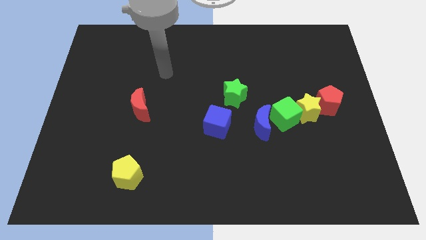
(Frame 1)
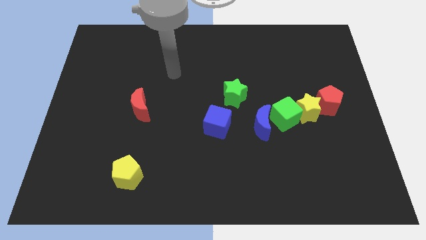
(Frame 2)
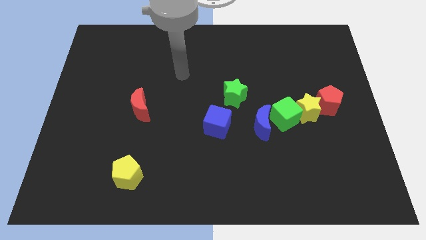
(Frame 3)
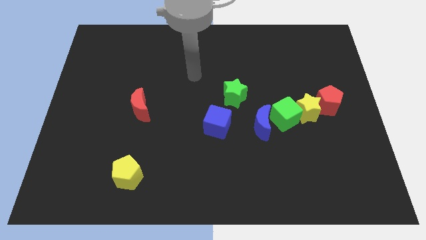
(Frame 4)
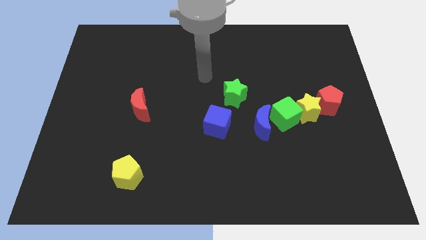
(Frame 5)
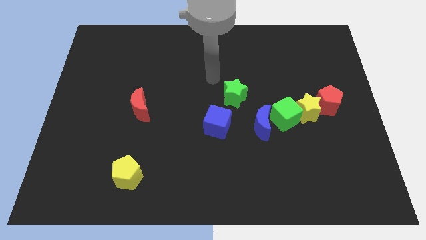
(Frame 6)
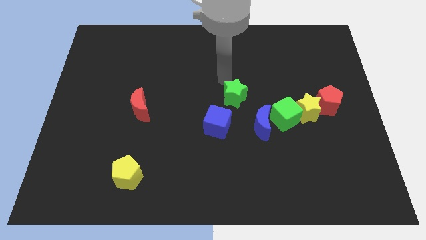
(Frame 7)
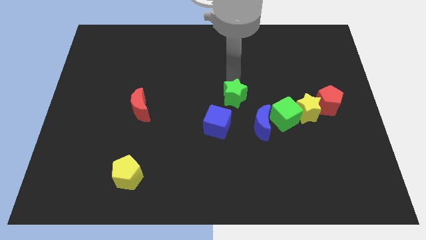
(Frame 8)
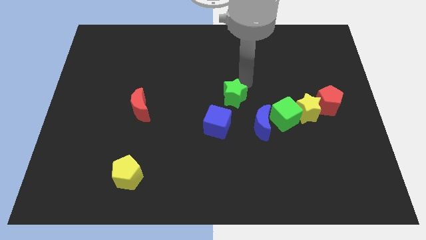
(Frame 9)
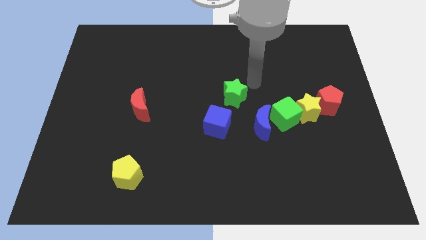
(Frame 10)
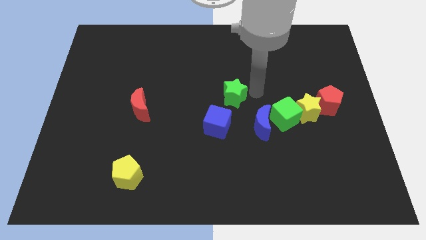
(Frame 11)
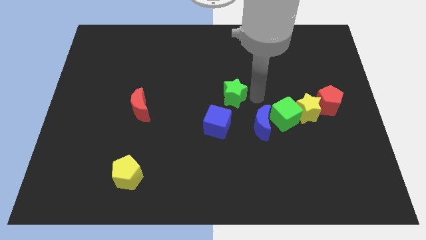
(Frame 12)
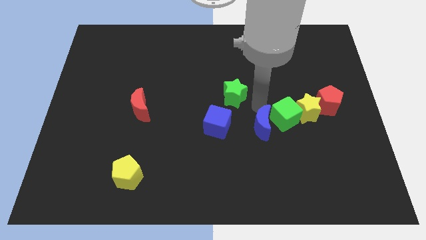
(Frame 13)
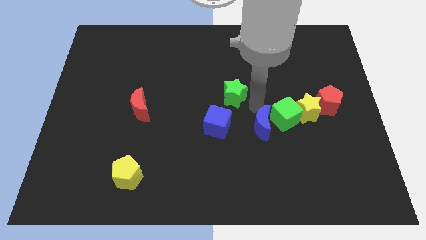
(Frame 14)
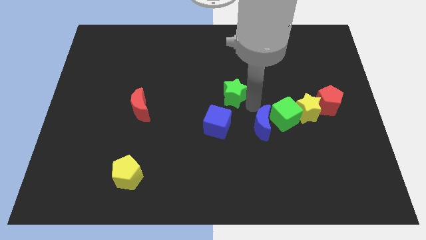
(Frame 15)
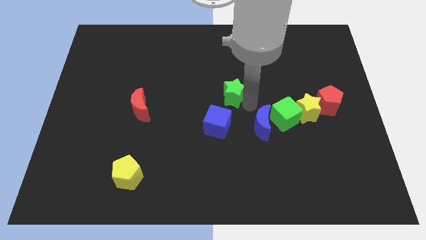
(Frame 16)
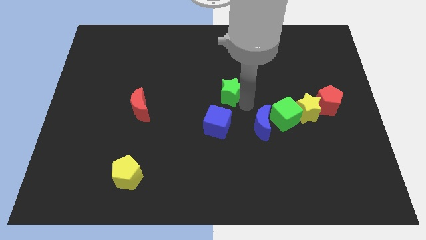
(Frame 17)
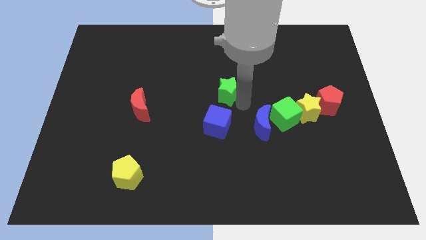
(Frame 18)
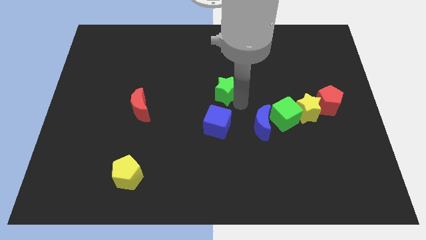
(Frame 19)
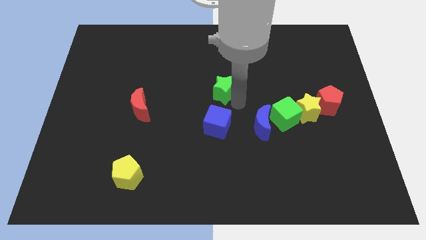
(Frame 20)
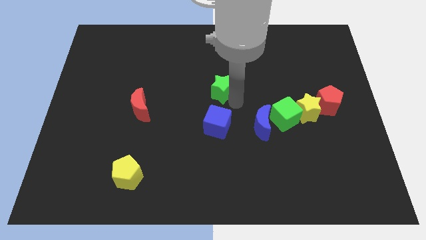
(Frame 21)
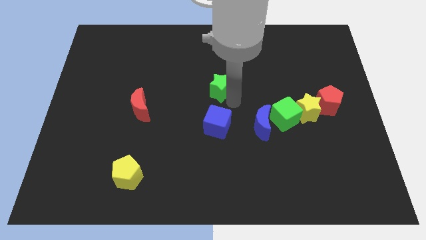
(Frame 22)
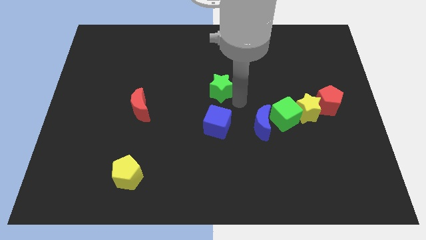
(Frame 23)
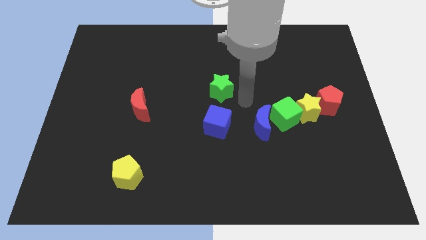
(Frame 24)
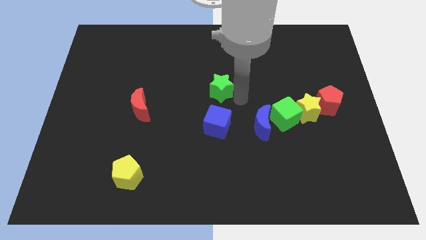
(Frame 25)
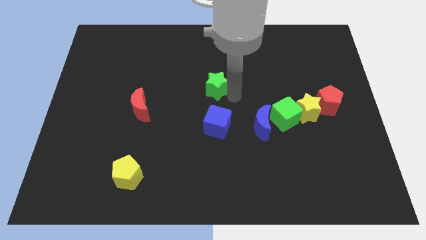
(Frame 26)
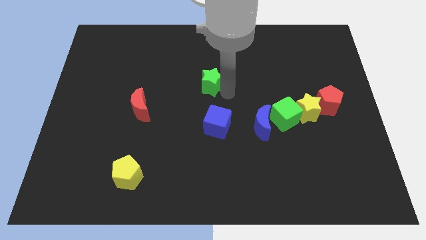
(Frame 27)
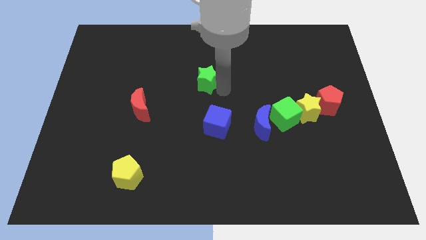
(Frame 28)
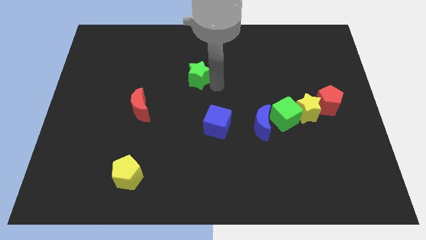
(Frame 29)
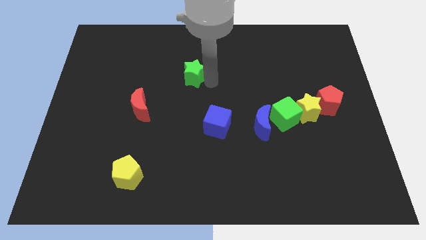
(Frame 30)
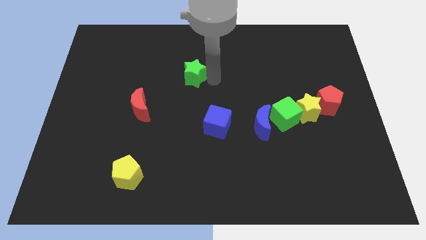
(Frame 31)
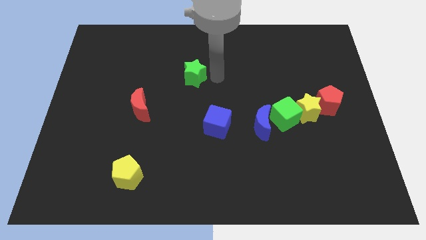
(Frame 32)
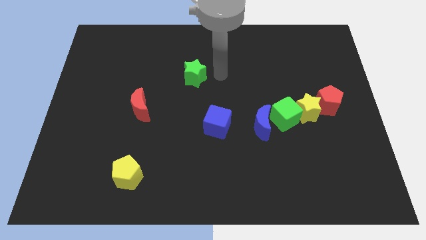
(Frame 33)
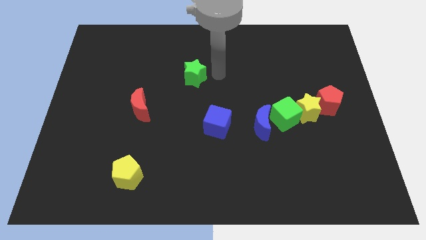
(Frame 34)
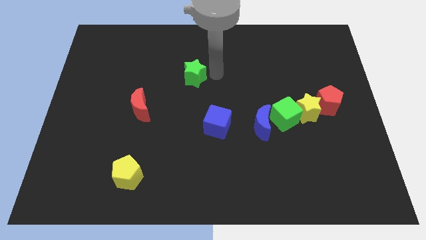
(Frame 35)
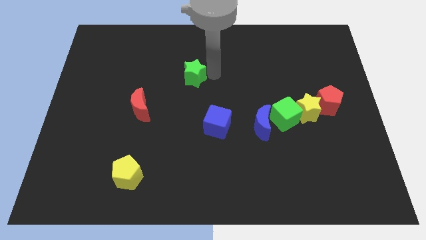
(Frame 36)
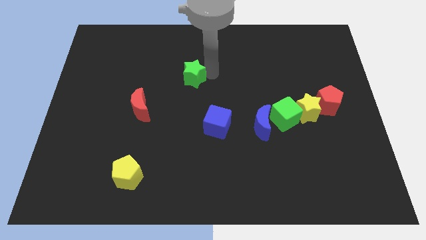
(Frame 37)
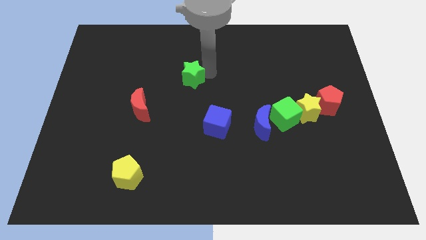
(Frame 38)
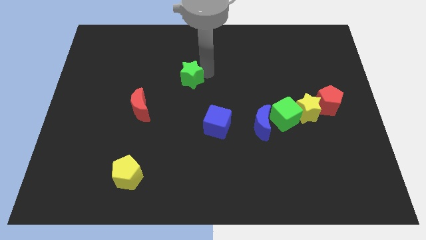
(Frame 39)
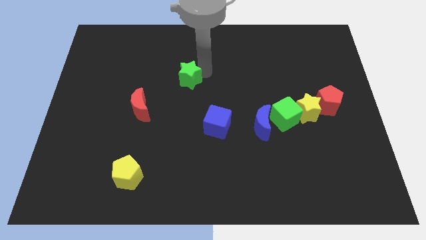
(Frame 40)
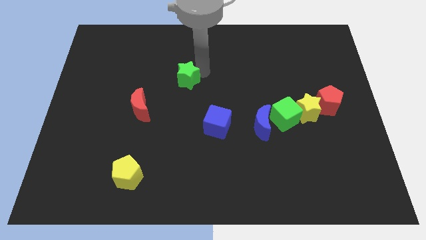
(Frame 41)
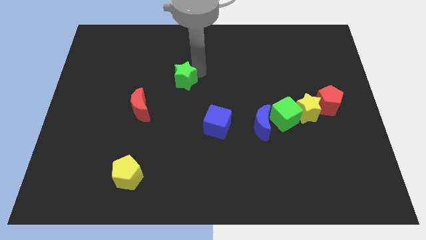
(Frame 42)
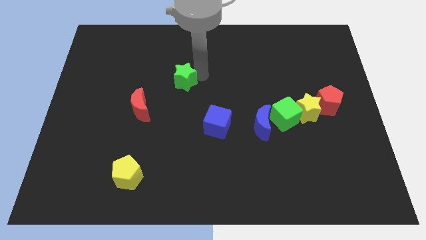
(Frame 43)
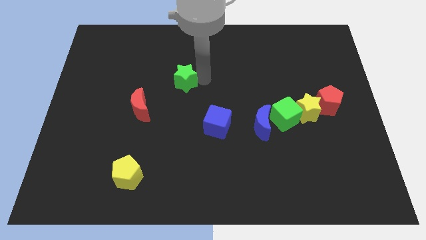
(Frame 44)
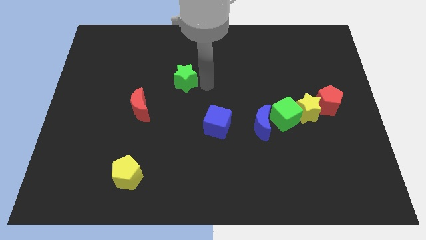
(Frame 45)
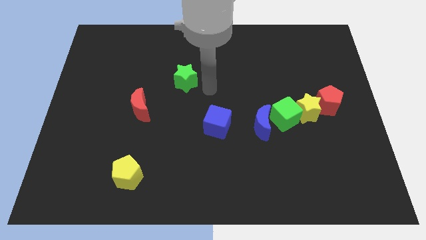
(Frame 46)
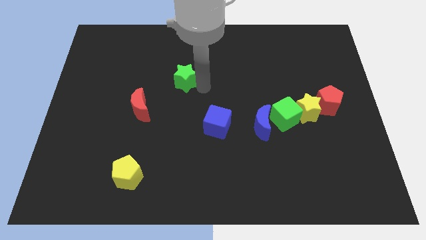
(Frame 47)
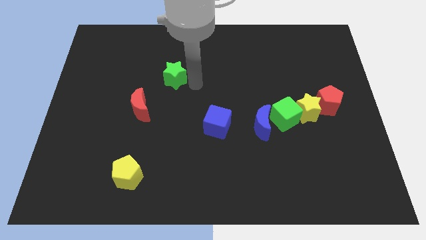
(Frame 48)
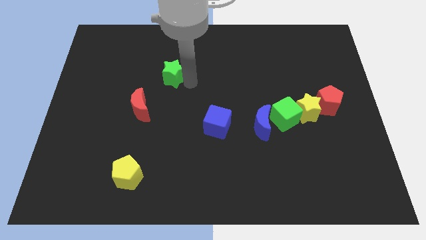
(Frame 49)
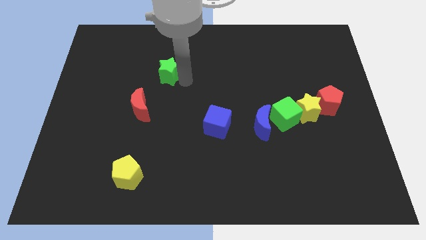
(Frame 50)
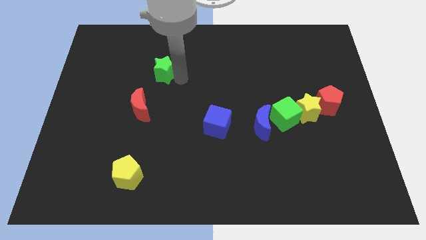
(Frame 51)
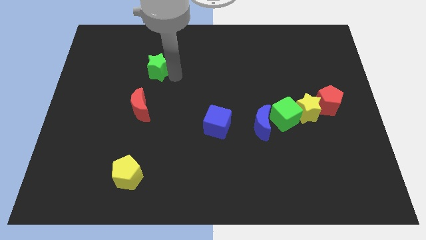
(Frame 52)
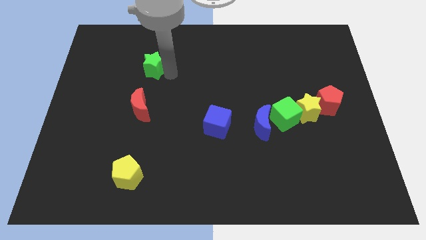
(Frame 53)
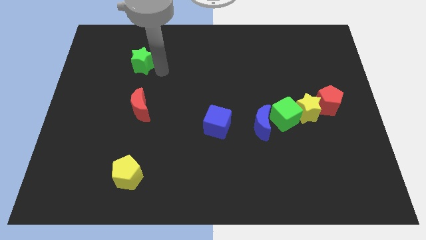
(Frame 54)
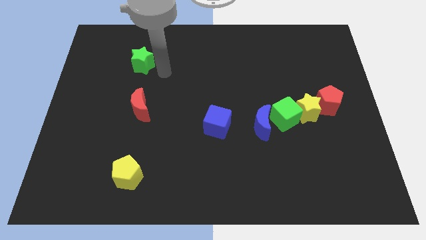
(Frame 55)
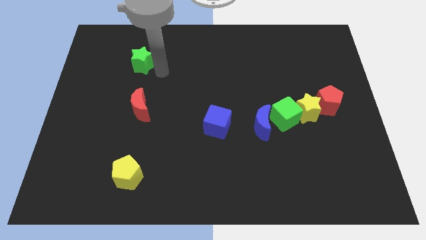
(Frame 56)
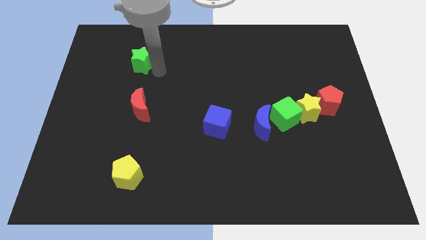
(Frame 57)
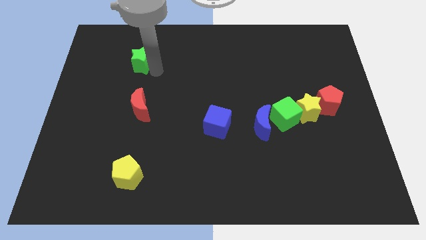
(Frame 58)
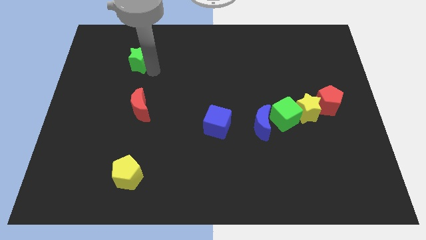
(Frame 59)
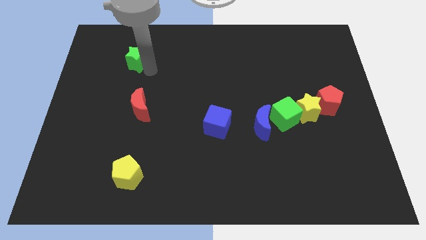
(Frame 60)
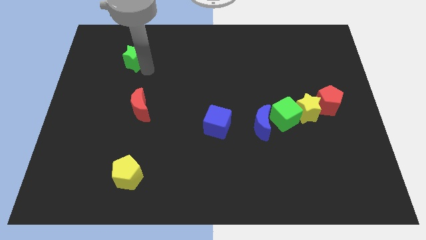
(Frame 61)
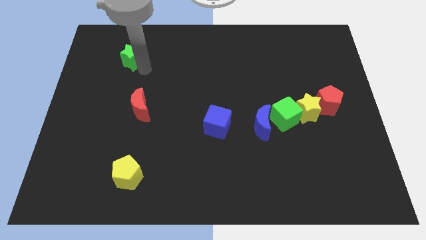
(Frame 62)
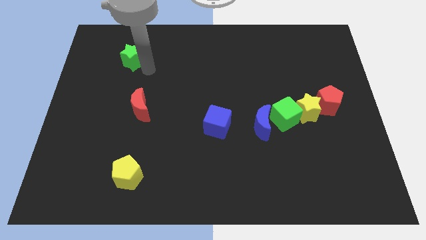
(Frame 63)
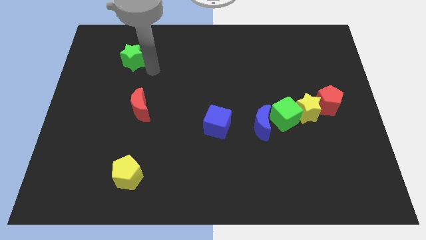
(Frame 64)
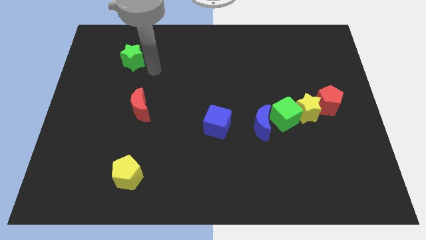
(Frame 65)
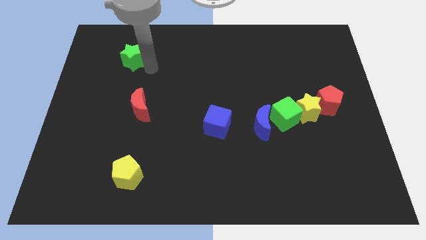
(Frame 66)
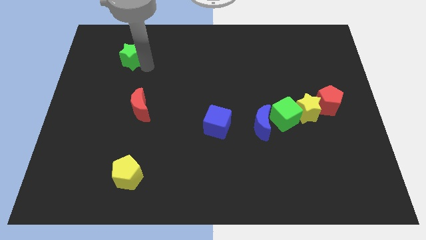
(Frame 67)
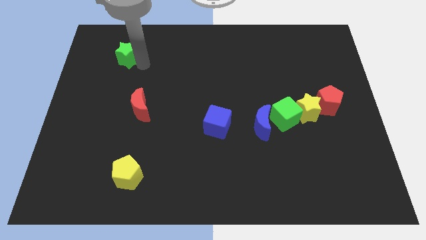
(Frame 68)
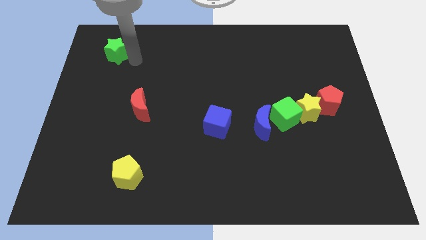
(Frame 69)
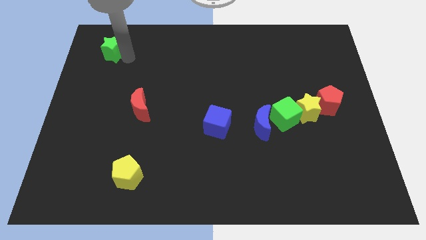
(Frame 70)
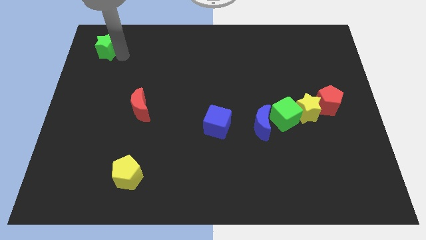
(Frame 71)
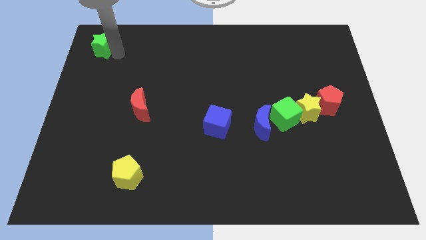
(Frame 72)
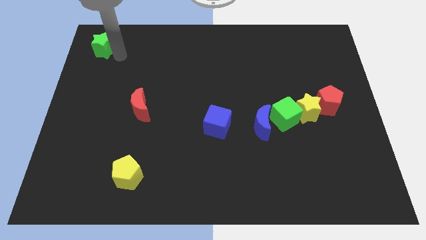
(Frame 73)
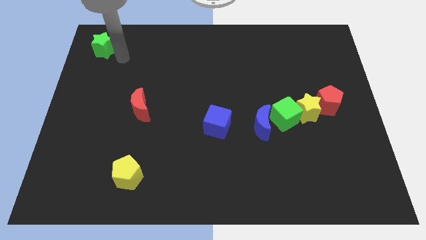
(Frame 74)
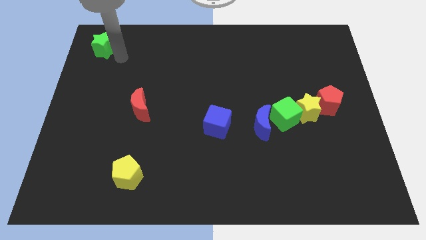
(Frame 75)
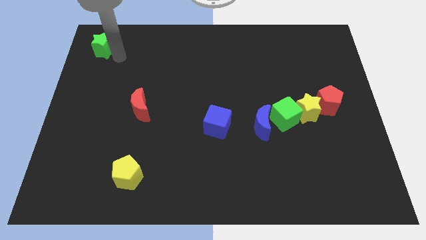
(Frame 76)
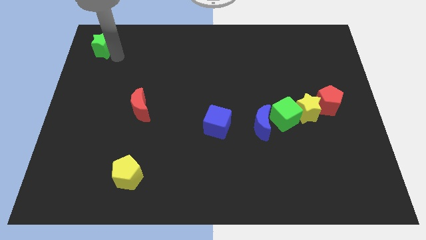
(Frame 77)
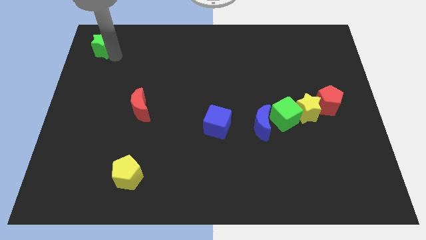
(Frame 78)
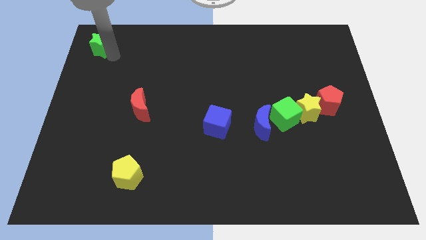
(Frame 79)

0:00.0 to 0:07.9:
push the green star to the top left of the board
